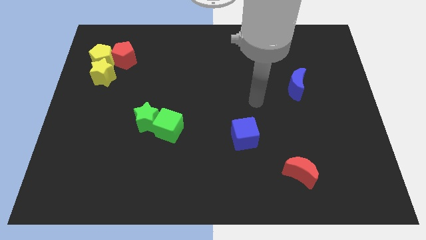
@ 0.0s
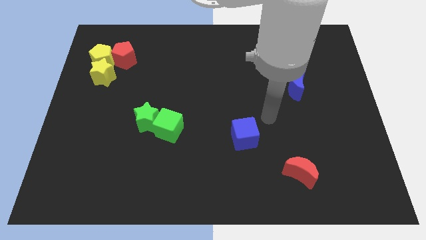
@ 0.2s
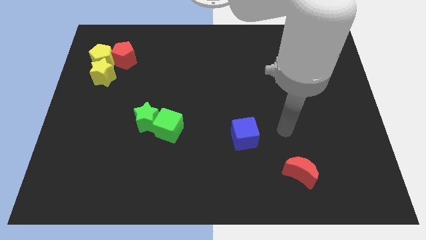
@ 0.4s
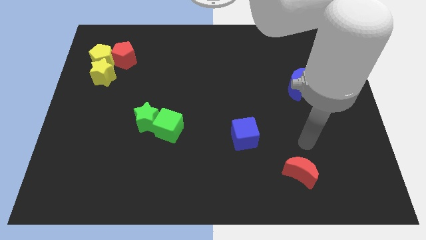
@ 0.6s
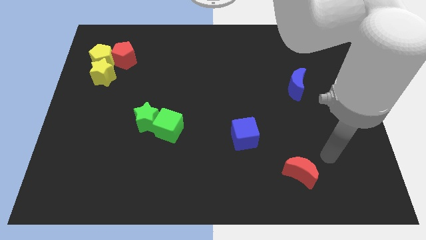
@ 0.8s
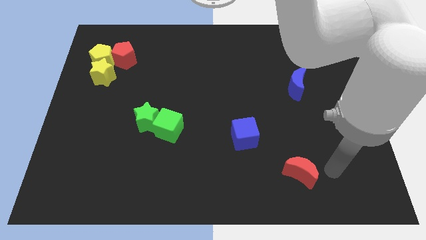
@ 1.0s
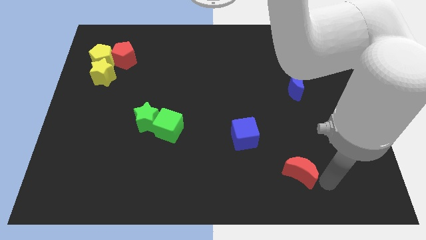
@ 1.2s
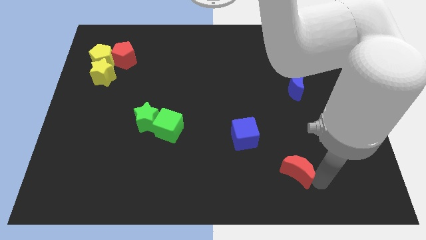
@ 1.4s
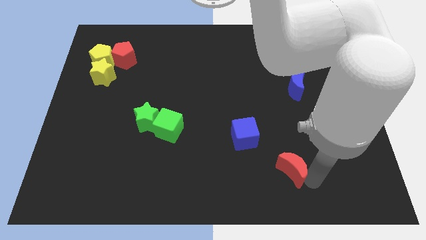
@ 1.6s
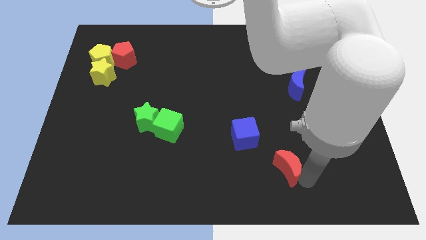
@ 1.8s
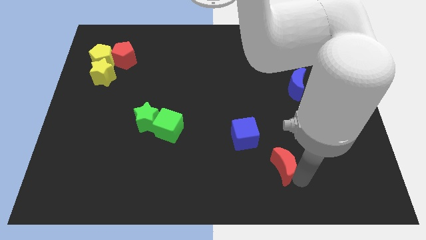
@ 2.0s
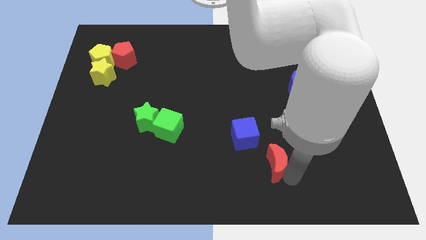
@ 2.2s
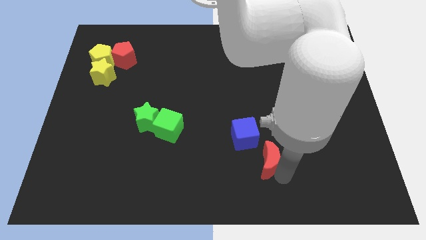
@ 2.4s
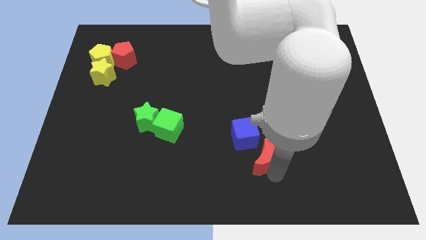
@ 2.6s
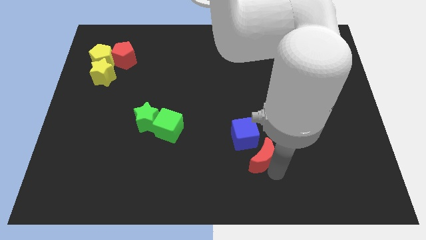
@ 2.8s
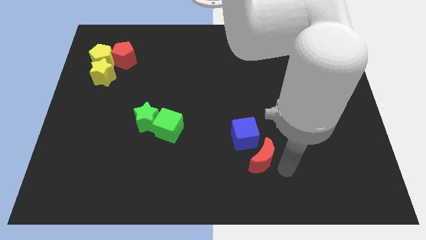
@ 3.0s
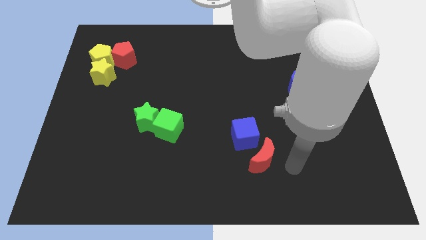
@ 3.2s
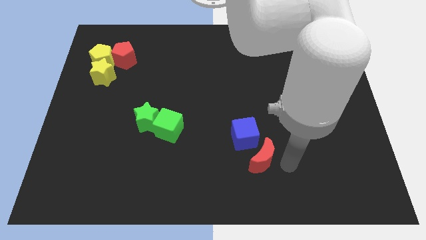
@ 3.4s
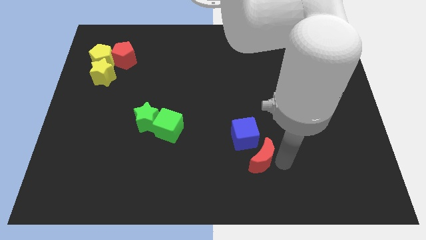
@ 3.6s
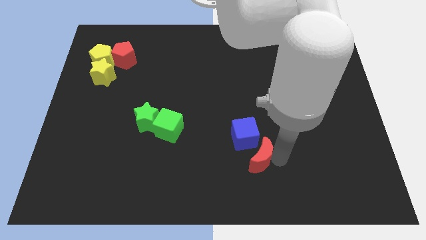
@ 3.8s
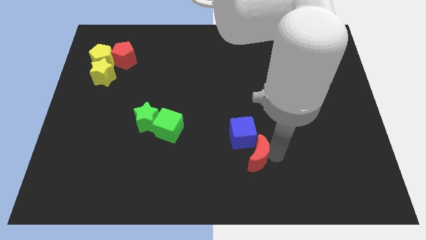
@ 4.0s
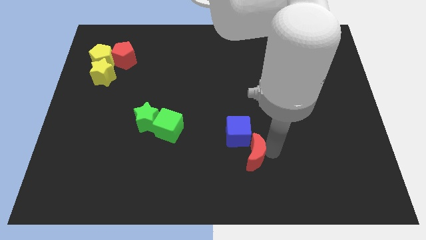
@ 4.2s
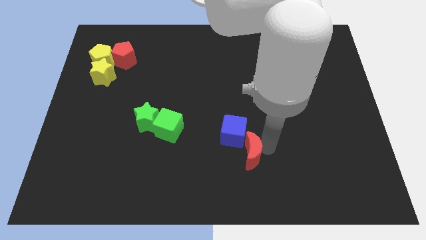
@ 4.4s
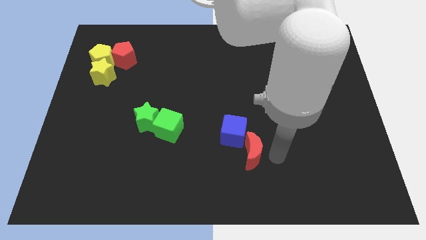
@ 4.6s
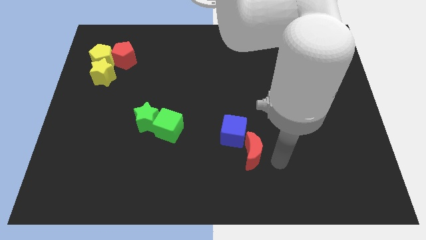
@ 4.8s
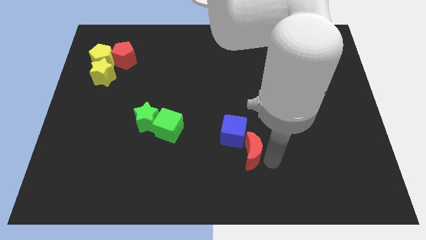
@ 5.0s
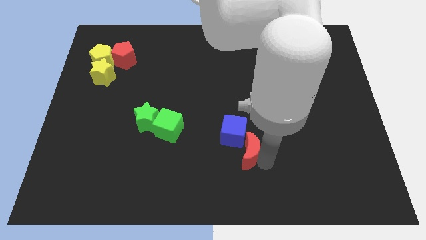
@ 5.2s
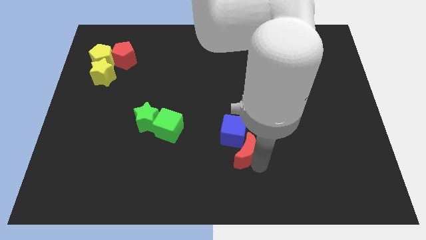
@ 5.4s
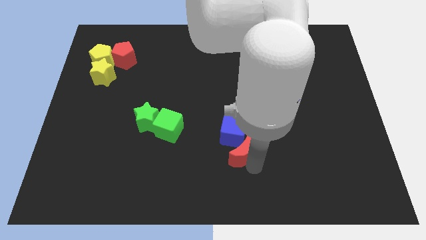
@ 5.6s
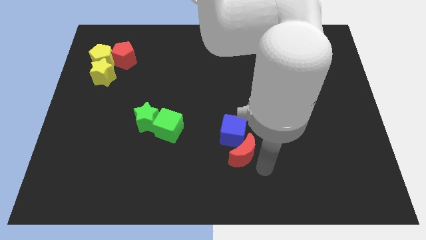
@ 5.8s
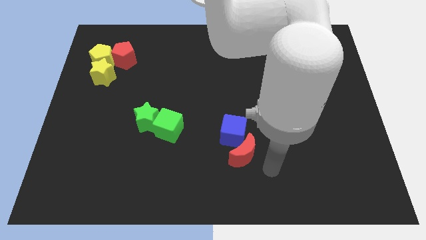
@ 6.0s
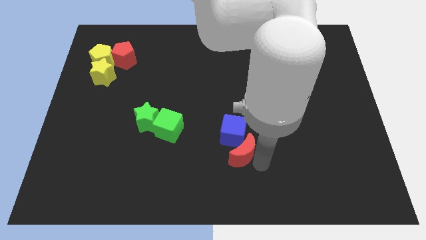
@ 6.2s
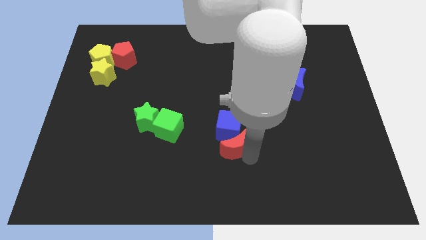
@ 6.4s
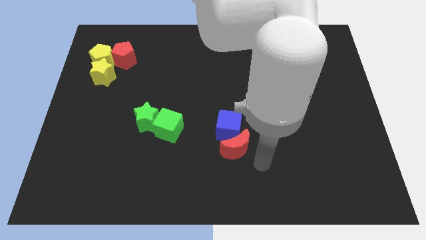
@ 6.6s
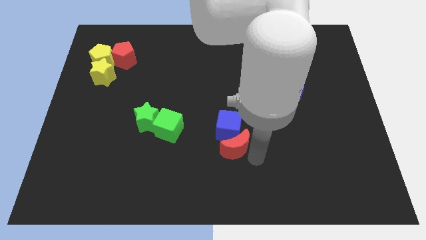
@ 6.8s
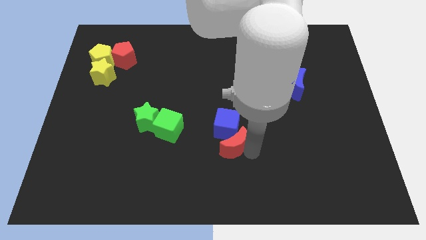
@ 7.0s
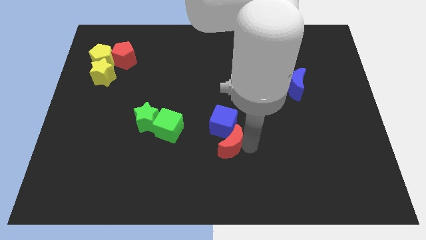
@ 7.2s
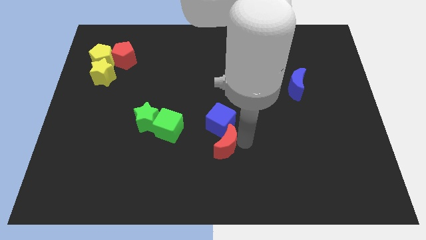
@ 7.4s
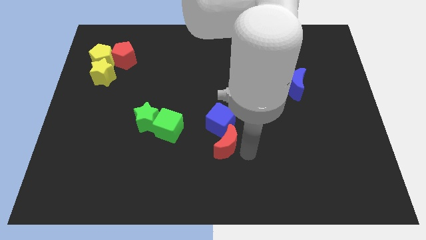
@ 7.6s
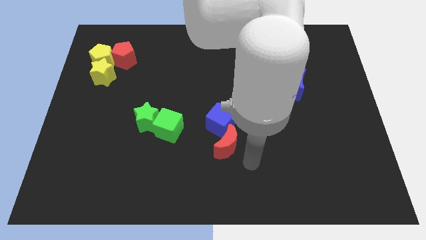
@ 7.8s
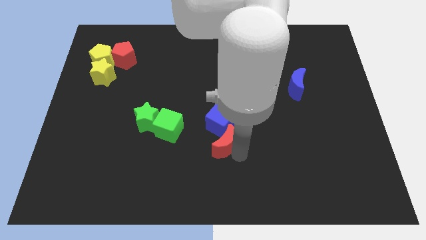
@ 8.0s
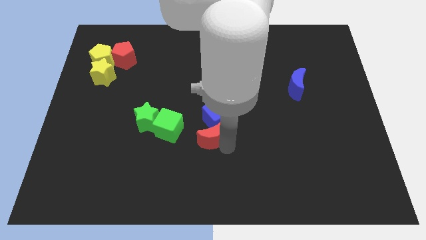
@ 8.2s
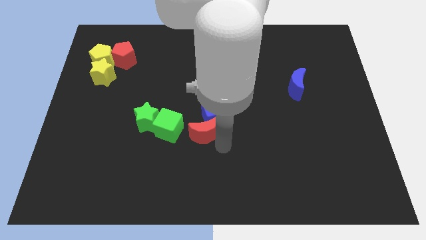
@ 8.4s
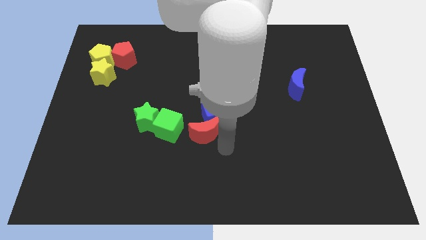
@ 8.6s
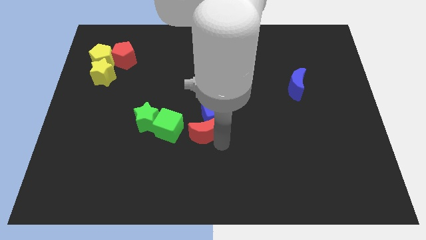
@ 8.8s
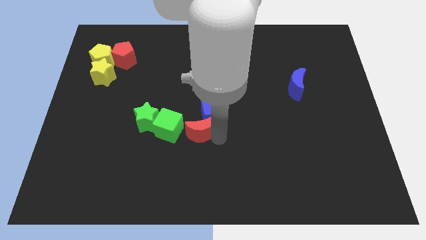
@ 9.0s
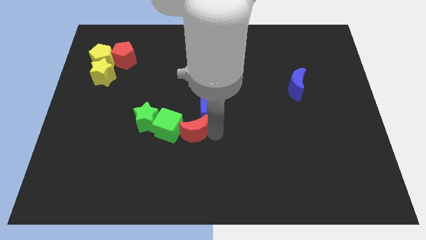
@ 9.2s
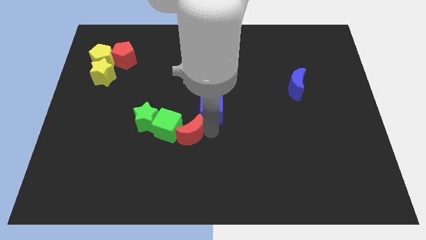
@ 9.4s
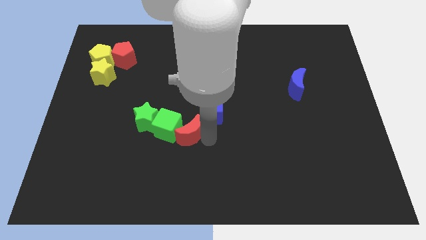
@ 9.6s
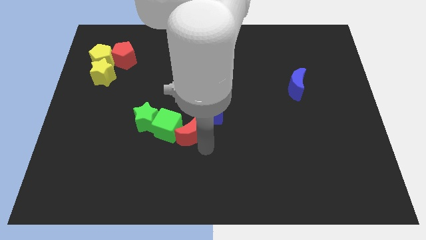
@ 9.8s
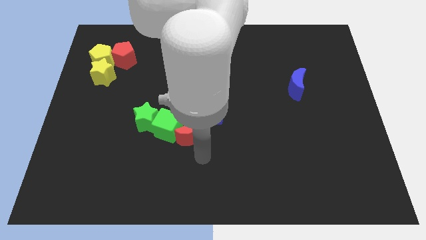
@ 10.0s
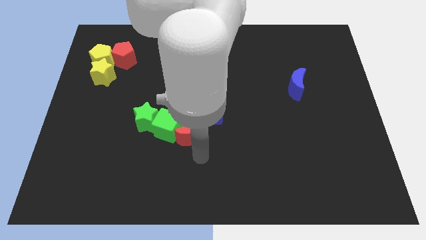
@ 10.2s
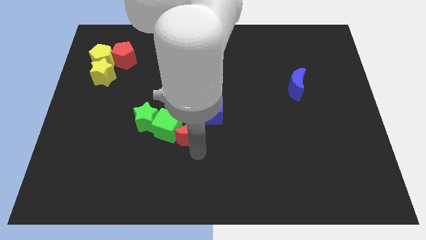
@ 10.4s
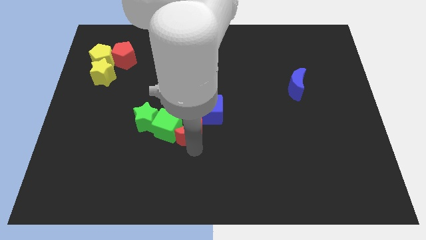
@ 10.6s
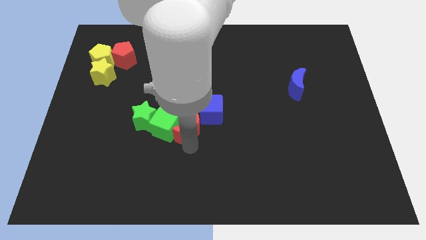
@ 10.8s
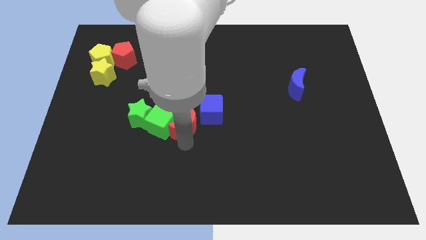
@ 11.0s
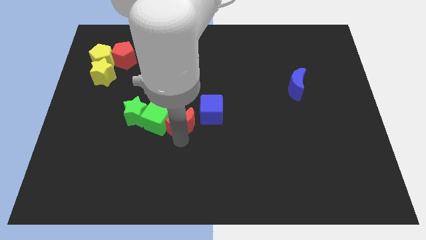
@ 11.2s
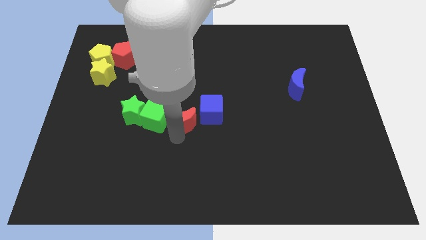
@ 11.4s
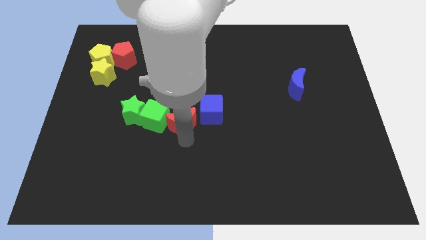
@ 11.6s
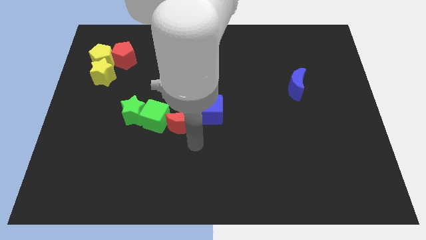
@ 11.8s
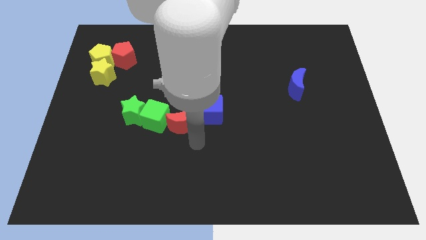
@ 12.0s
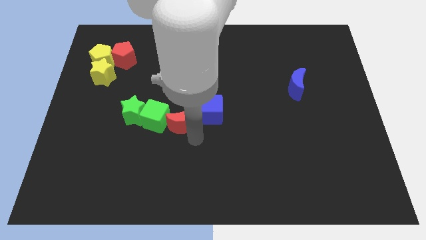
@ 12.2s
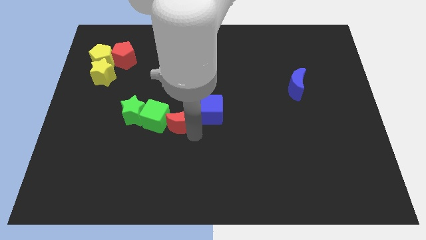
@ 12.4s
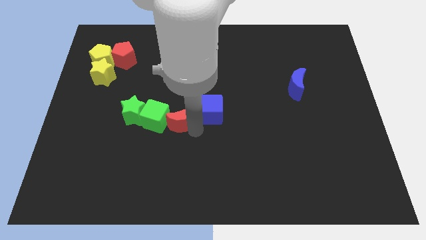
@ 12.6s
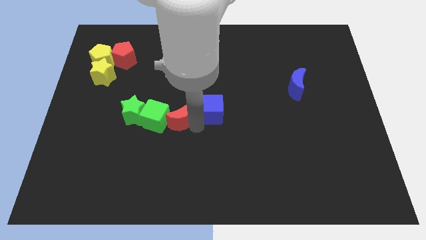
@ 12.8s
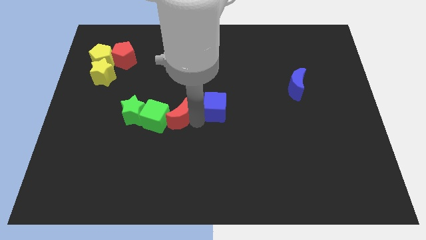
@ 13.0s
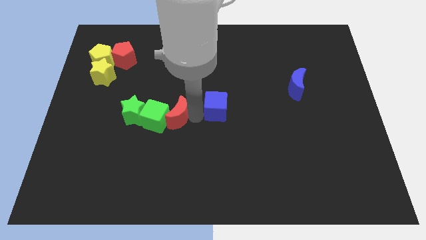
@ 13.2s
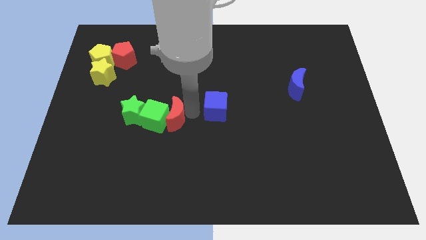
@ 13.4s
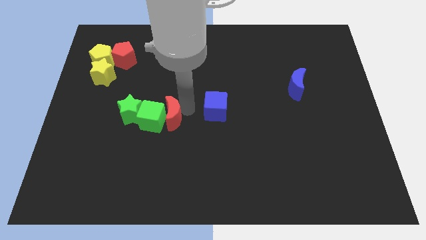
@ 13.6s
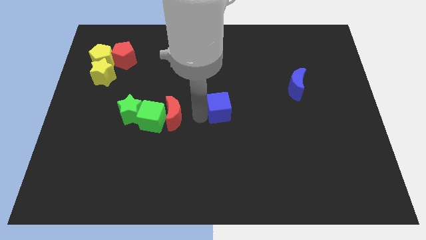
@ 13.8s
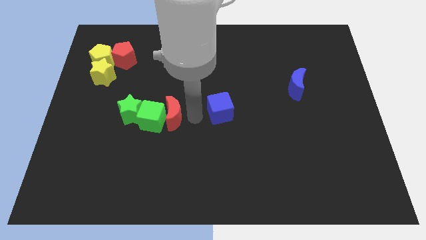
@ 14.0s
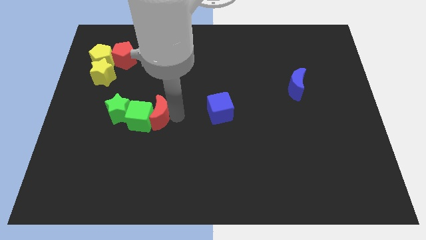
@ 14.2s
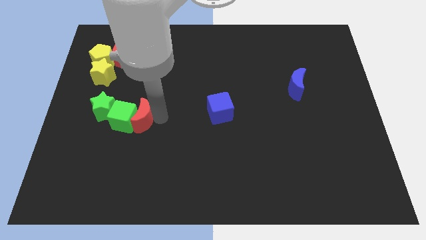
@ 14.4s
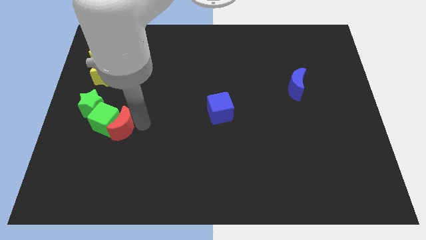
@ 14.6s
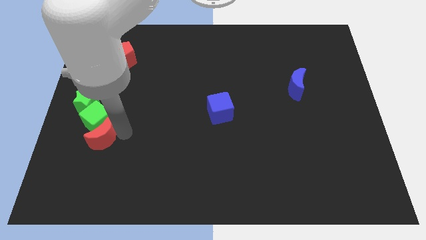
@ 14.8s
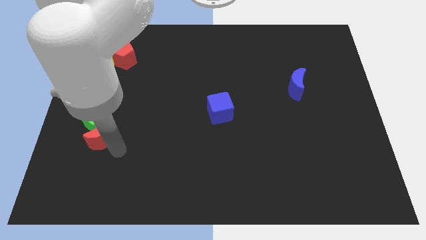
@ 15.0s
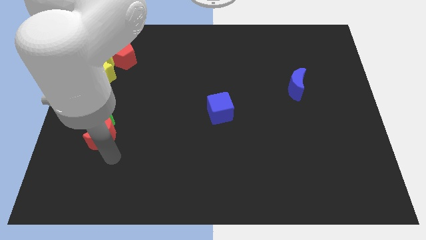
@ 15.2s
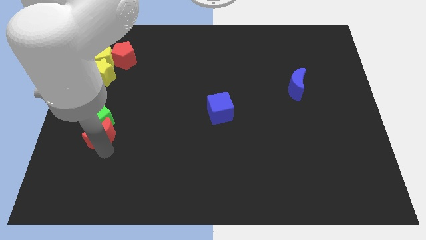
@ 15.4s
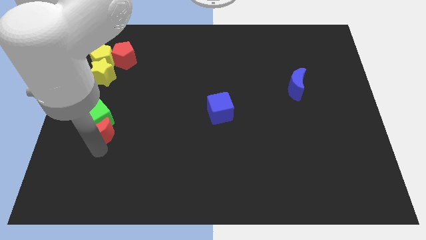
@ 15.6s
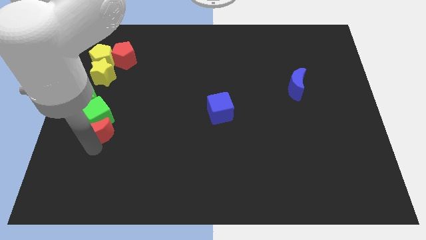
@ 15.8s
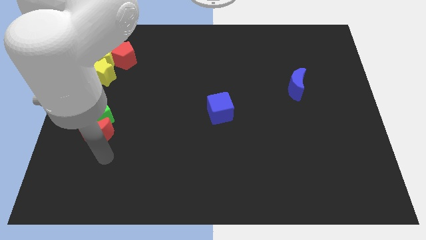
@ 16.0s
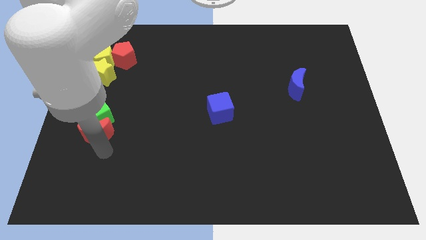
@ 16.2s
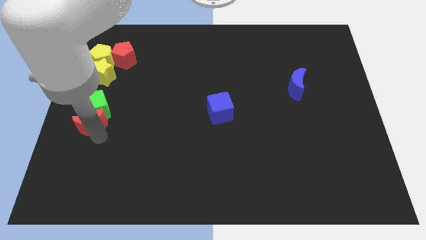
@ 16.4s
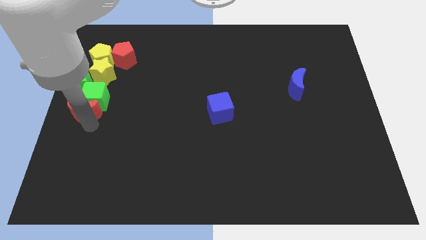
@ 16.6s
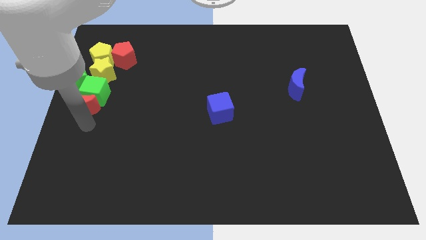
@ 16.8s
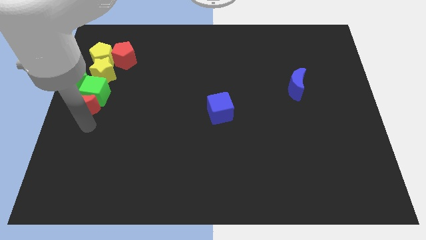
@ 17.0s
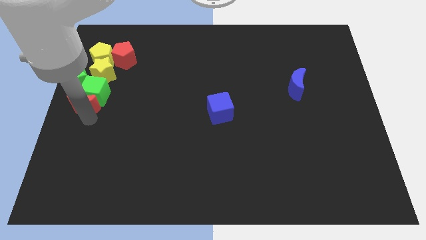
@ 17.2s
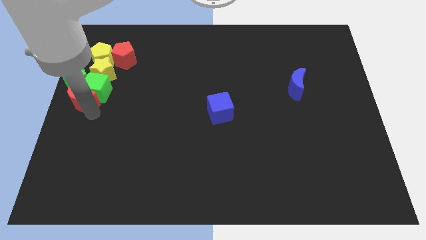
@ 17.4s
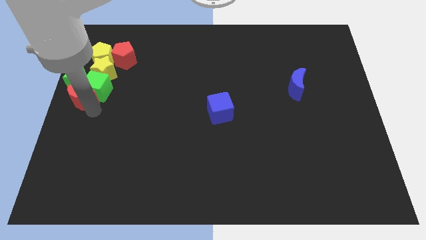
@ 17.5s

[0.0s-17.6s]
put the red moon towards the green star
